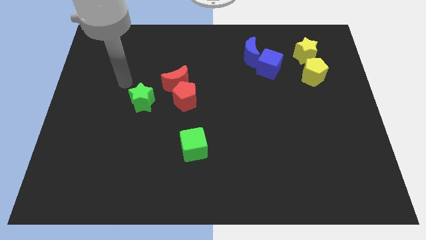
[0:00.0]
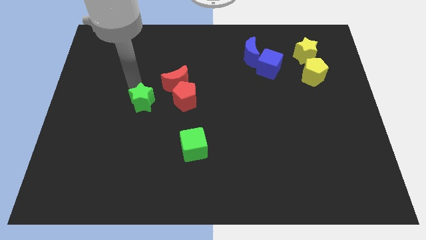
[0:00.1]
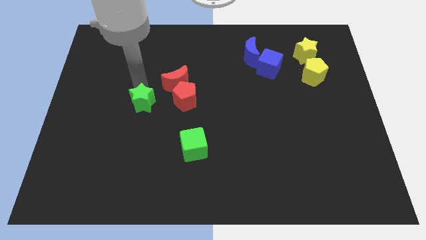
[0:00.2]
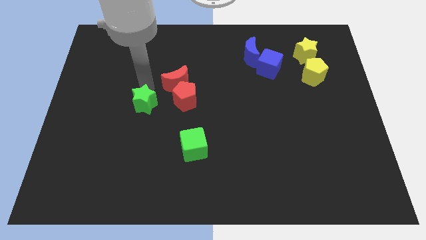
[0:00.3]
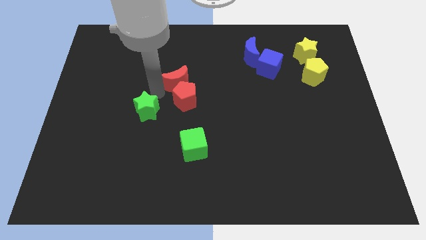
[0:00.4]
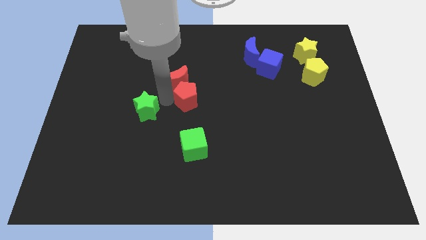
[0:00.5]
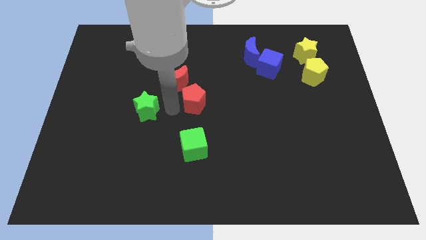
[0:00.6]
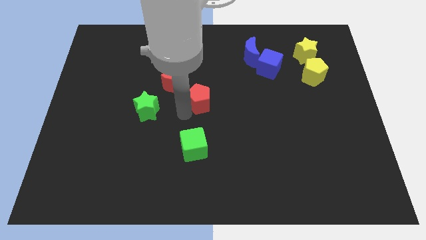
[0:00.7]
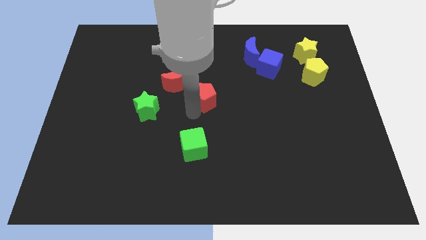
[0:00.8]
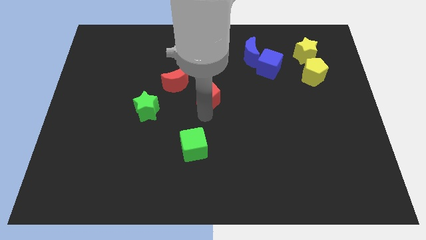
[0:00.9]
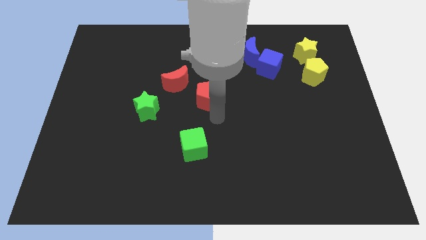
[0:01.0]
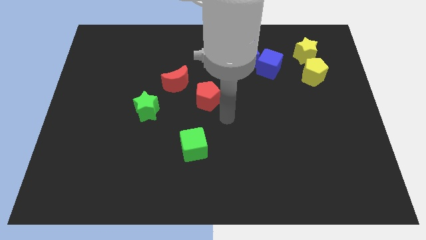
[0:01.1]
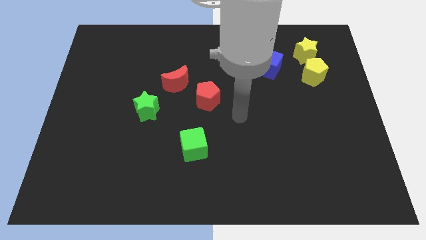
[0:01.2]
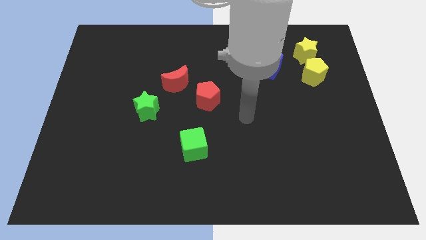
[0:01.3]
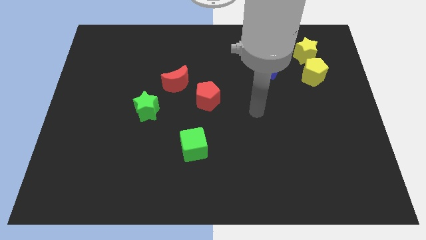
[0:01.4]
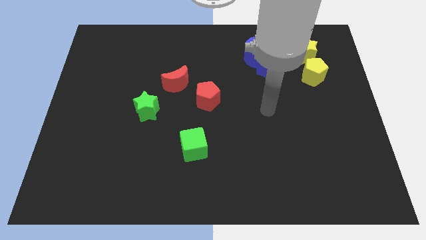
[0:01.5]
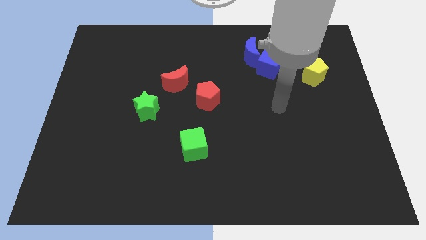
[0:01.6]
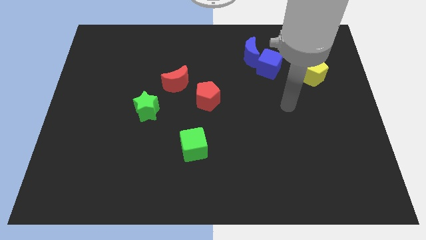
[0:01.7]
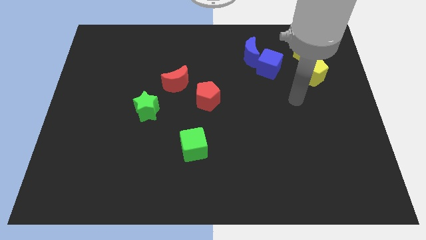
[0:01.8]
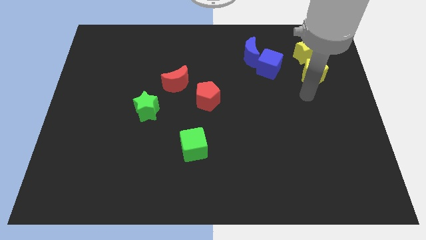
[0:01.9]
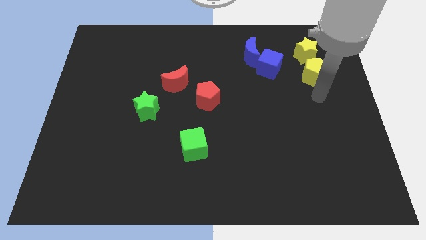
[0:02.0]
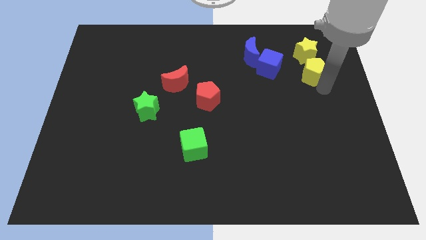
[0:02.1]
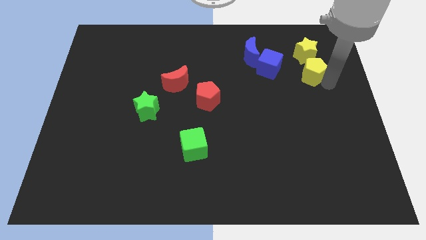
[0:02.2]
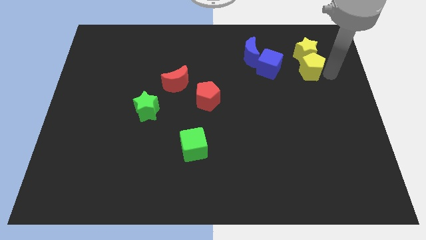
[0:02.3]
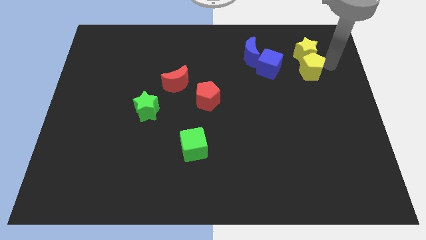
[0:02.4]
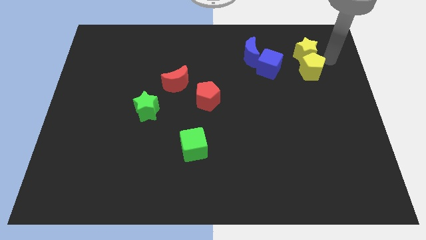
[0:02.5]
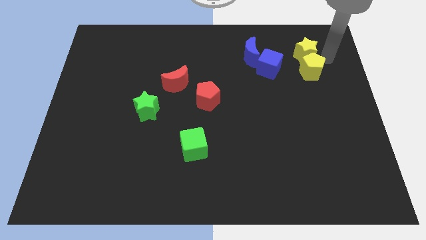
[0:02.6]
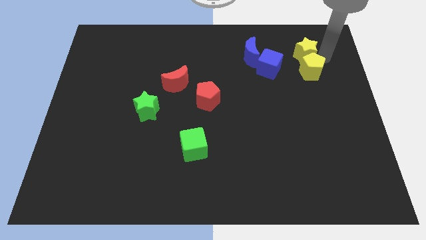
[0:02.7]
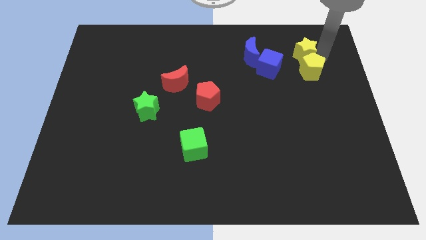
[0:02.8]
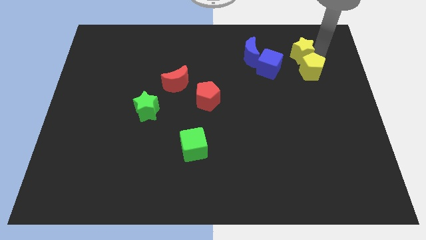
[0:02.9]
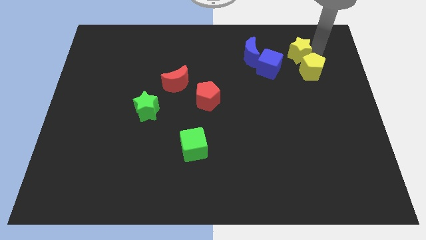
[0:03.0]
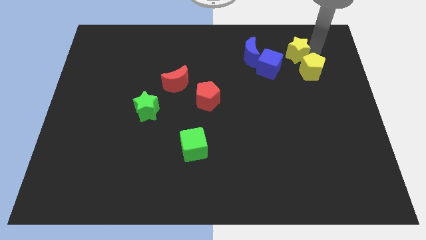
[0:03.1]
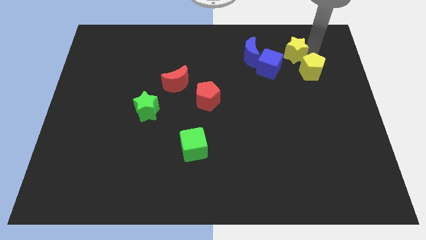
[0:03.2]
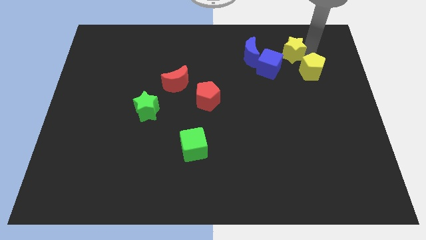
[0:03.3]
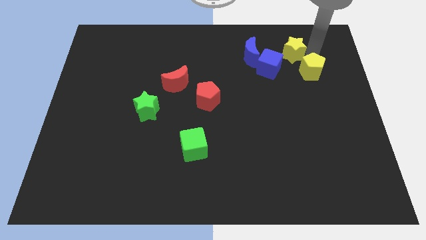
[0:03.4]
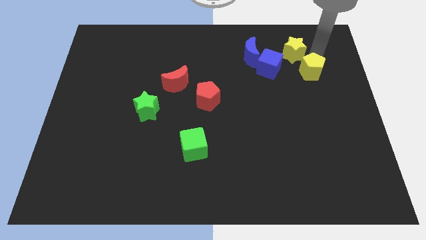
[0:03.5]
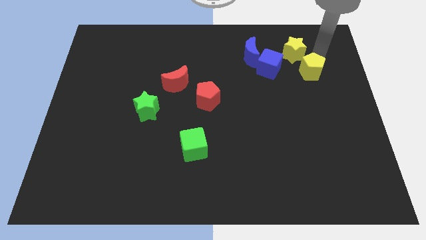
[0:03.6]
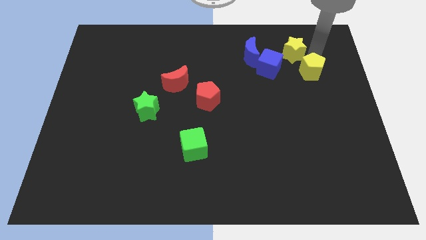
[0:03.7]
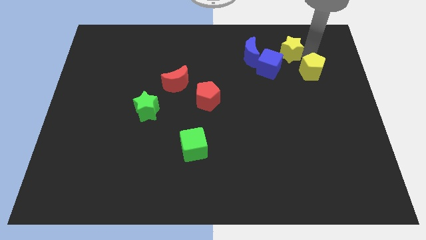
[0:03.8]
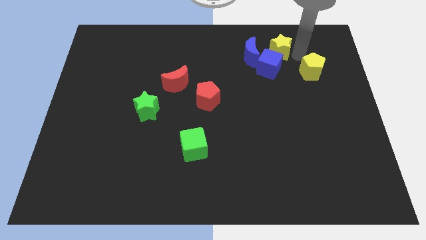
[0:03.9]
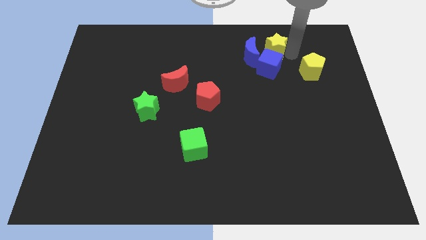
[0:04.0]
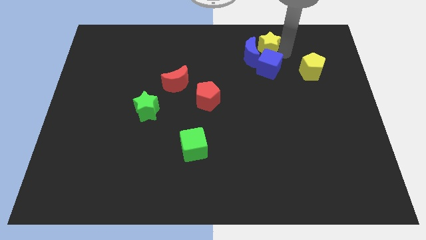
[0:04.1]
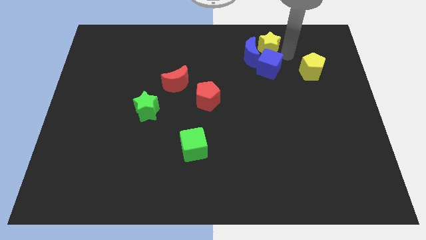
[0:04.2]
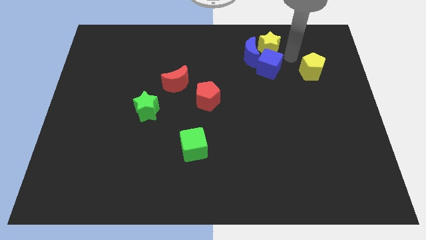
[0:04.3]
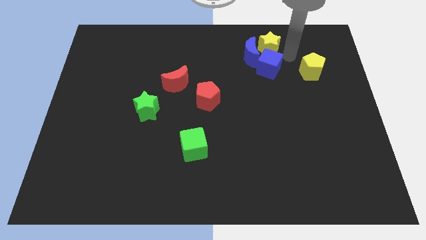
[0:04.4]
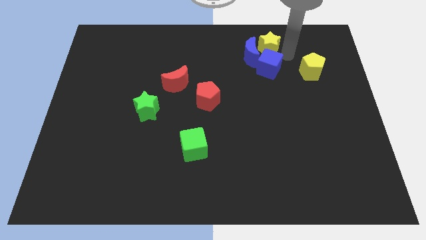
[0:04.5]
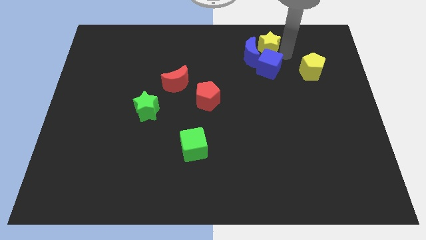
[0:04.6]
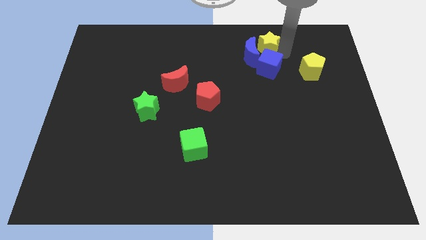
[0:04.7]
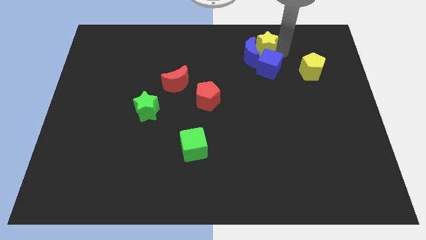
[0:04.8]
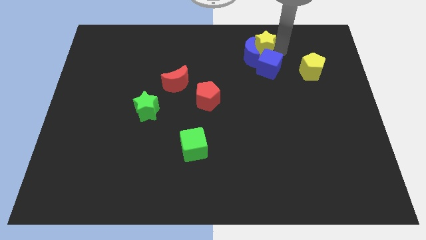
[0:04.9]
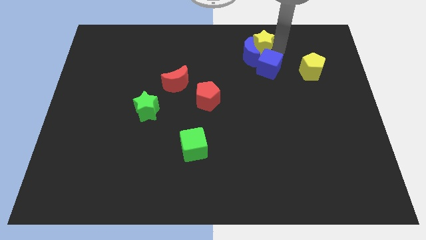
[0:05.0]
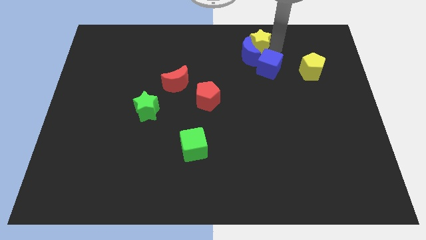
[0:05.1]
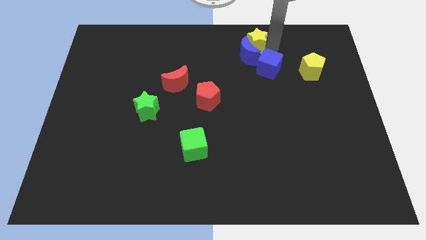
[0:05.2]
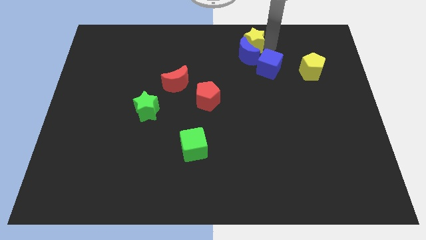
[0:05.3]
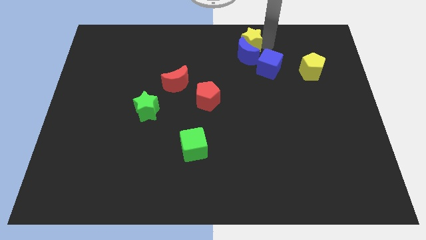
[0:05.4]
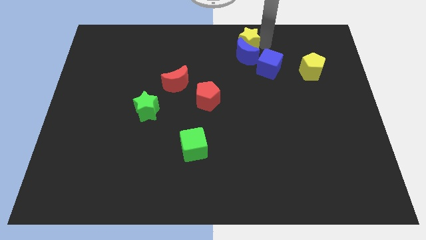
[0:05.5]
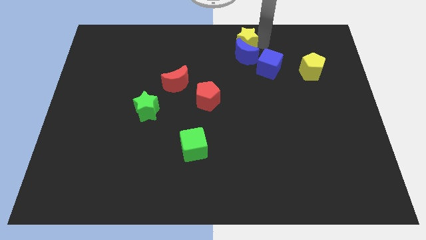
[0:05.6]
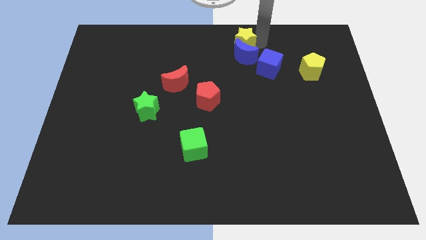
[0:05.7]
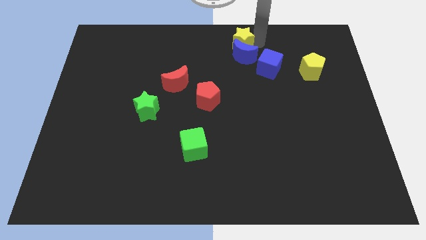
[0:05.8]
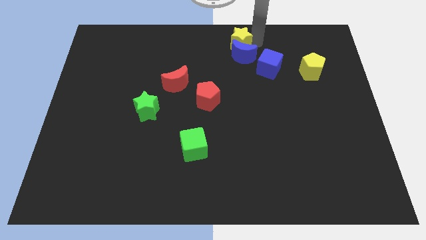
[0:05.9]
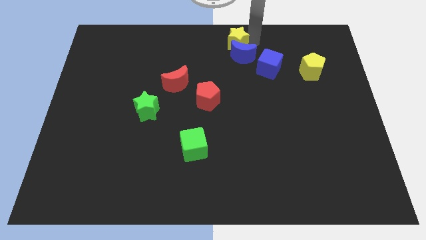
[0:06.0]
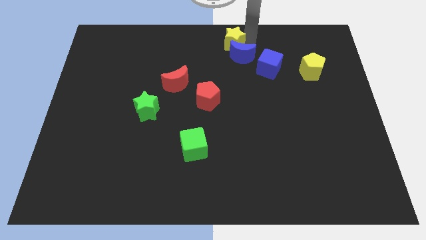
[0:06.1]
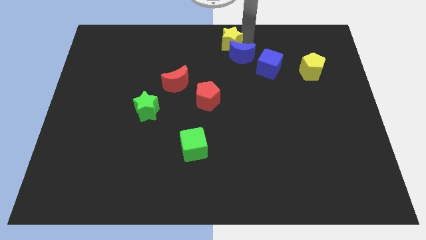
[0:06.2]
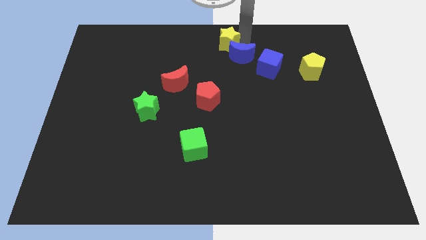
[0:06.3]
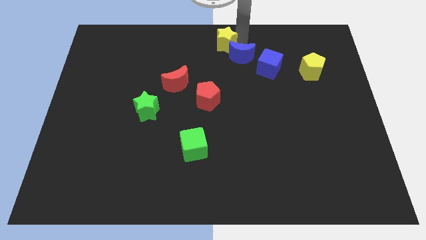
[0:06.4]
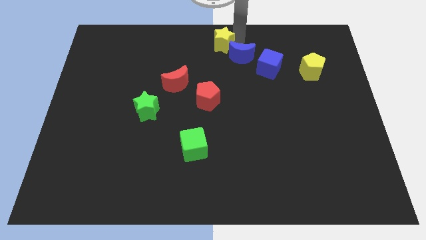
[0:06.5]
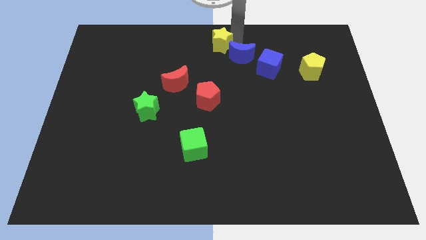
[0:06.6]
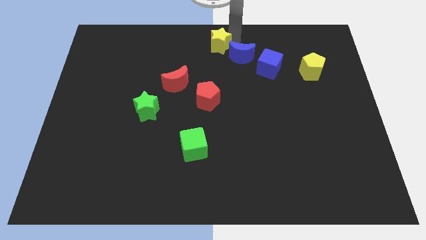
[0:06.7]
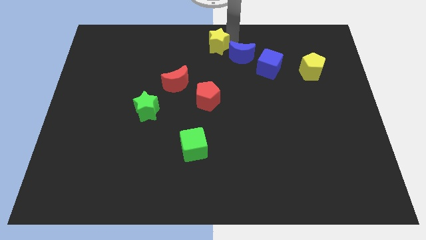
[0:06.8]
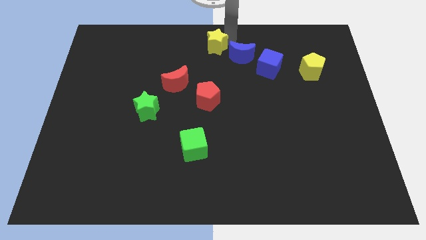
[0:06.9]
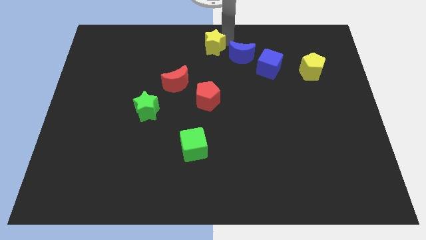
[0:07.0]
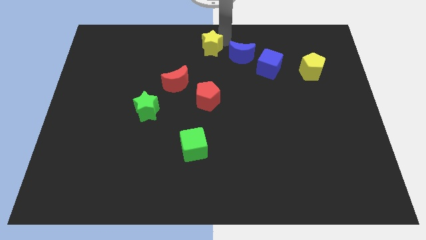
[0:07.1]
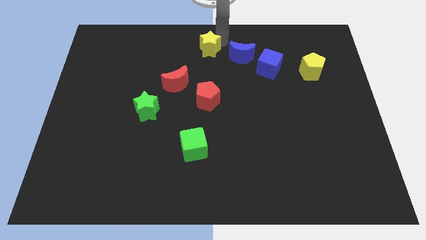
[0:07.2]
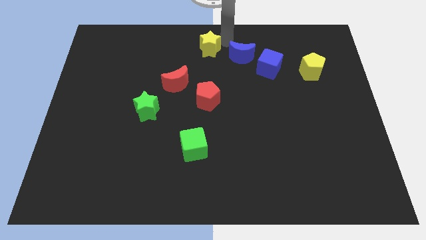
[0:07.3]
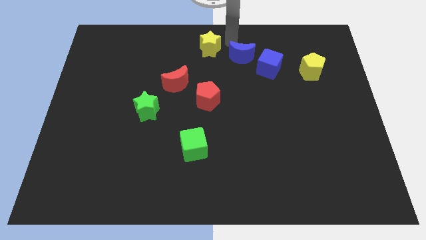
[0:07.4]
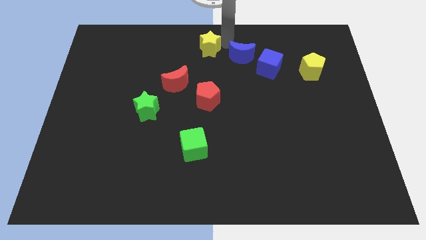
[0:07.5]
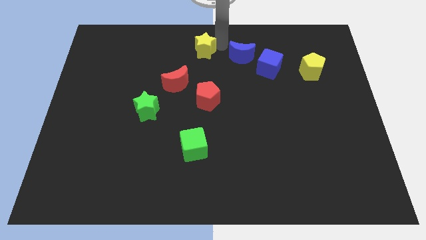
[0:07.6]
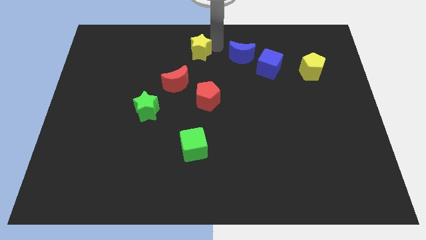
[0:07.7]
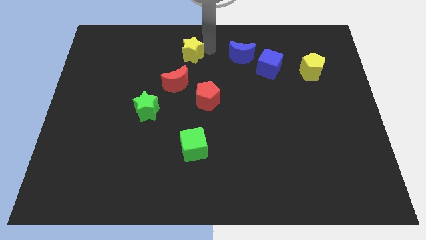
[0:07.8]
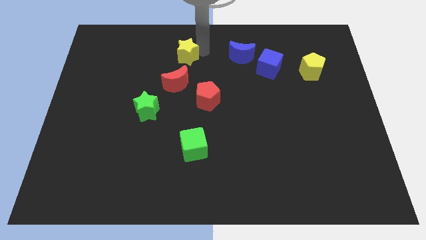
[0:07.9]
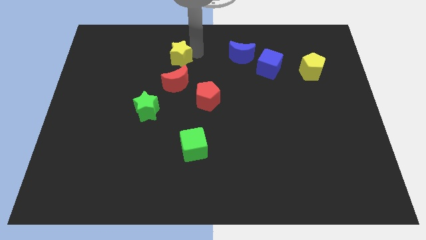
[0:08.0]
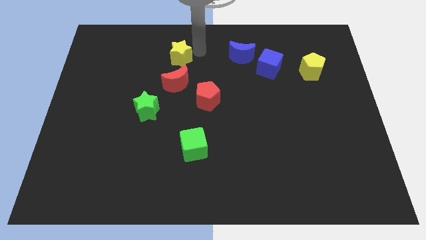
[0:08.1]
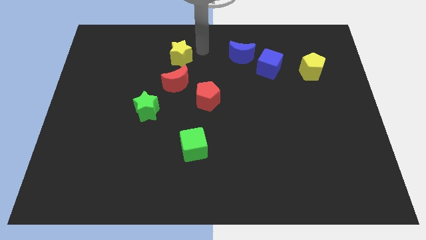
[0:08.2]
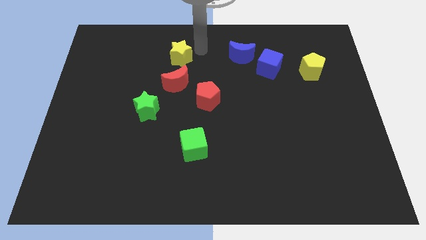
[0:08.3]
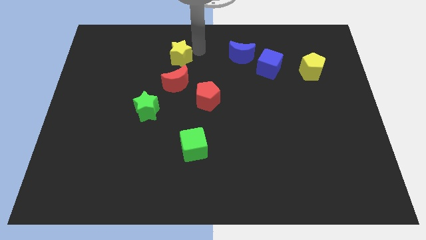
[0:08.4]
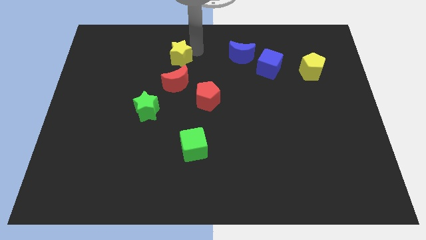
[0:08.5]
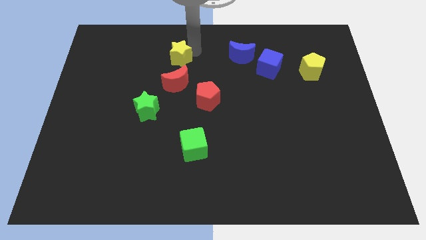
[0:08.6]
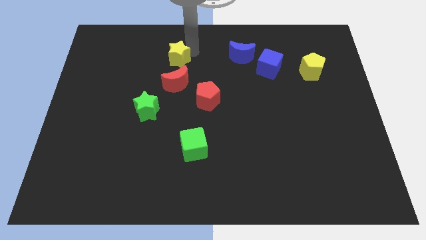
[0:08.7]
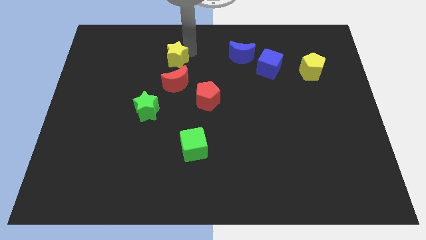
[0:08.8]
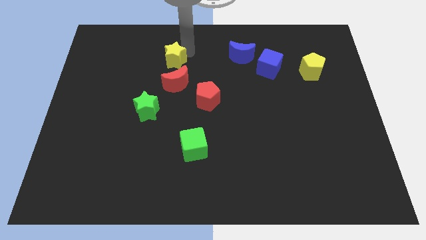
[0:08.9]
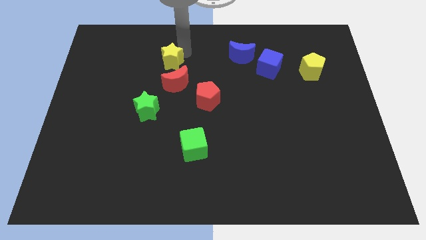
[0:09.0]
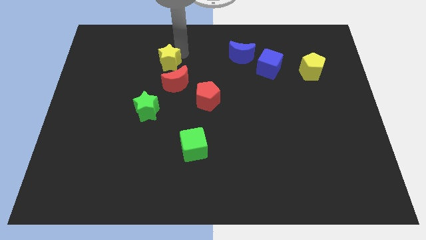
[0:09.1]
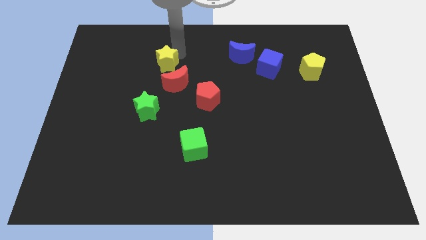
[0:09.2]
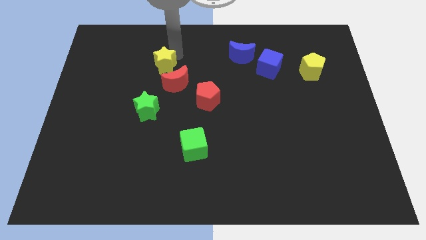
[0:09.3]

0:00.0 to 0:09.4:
slide the yellow star to the top side of the green star
